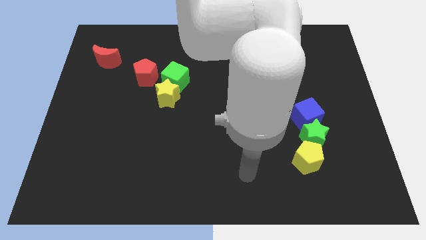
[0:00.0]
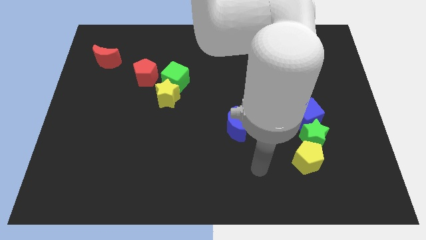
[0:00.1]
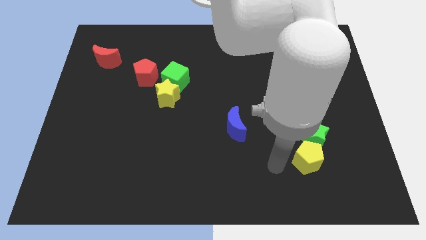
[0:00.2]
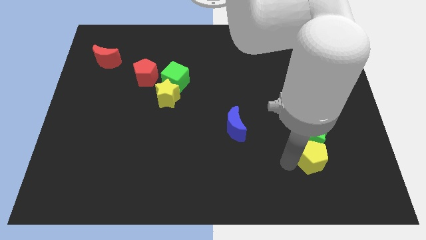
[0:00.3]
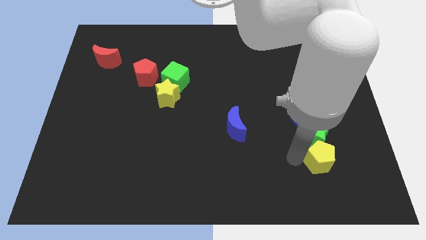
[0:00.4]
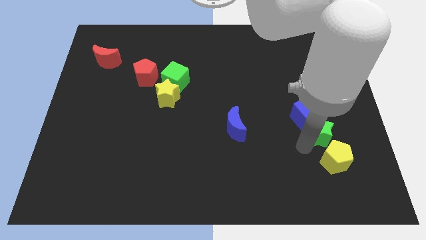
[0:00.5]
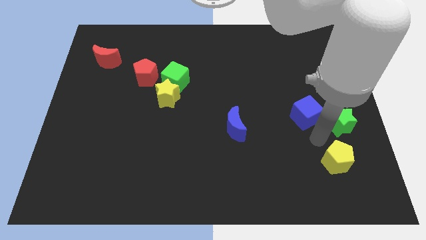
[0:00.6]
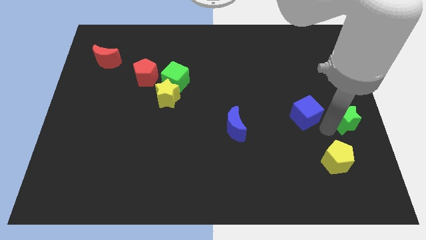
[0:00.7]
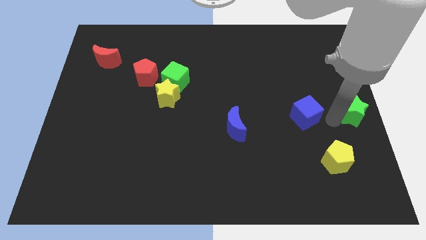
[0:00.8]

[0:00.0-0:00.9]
separate the blue cube from the green star

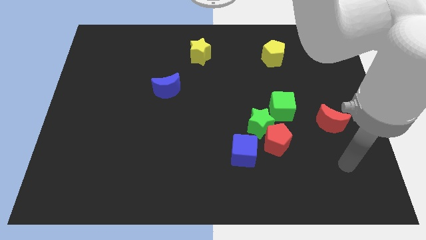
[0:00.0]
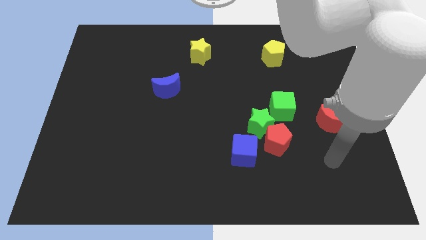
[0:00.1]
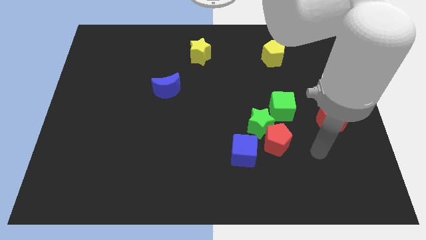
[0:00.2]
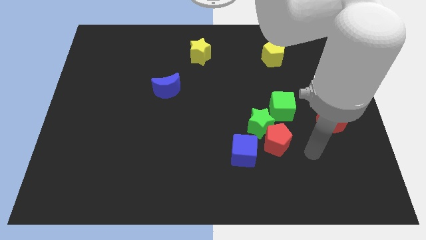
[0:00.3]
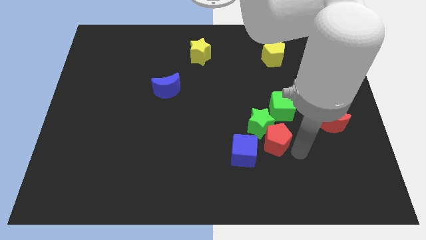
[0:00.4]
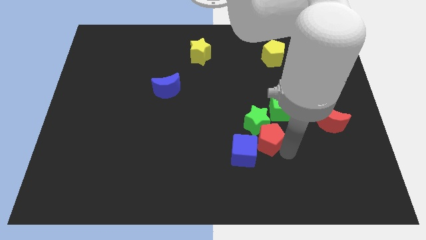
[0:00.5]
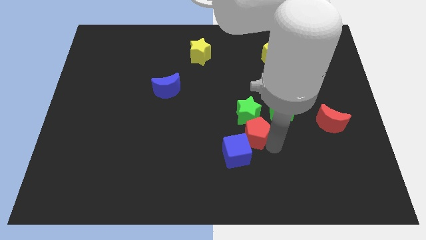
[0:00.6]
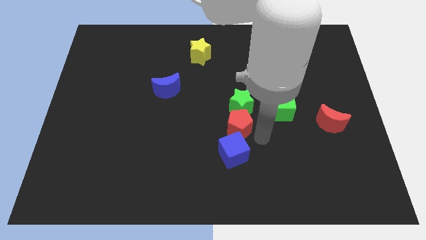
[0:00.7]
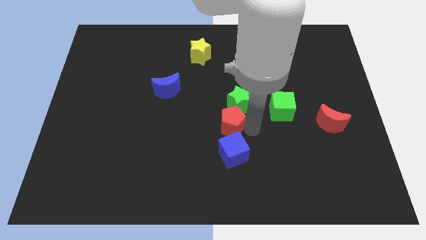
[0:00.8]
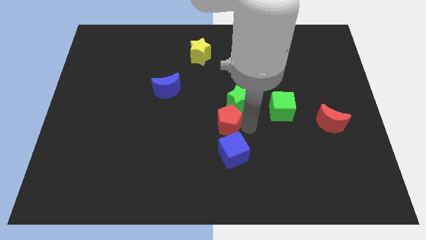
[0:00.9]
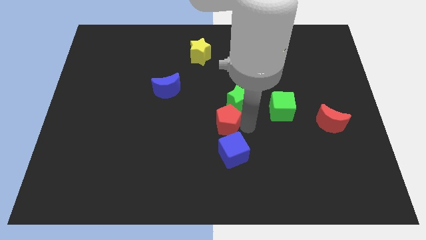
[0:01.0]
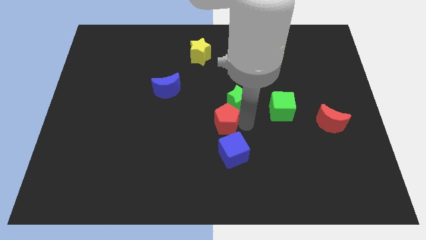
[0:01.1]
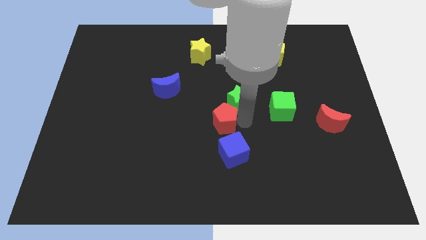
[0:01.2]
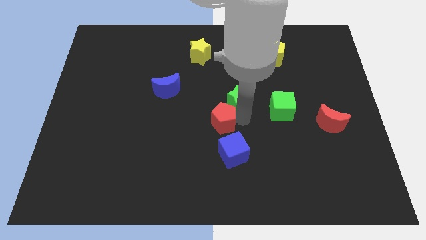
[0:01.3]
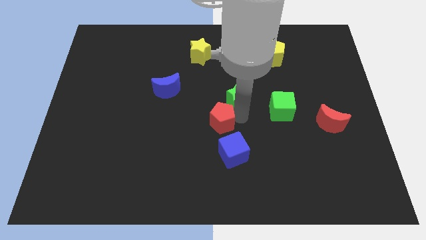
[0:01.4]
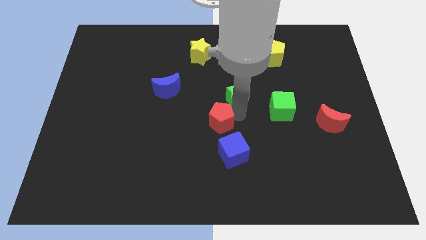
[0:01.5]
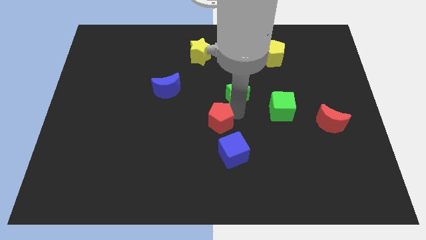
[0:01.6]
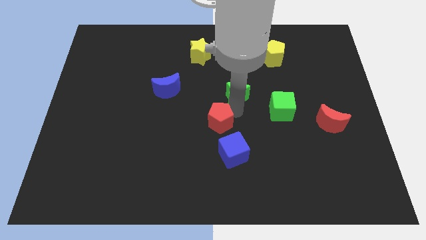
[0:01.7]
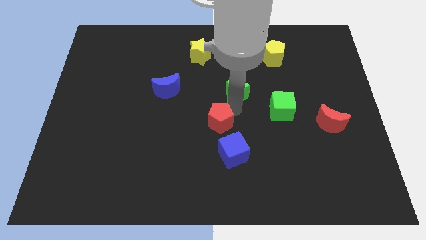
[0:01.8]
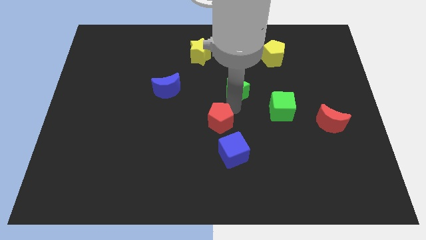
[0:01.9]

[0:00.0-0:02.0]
pull the green star apart from the clump

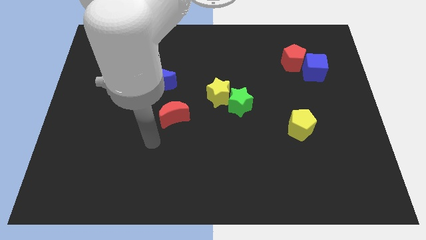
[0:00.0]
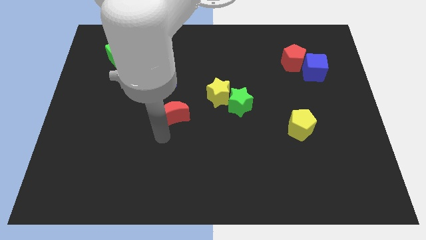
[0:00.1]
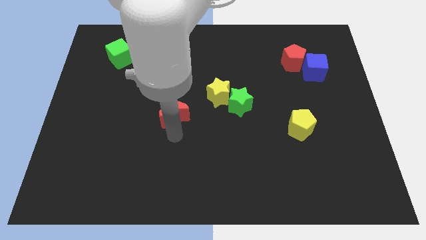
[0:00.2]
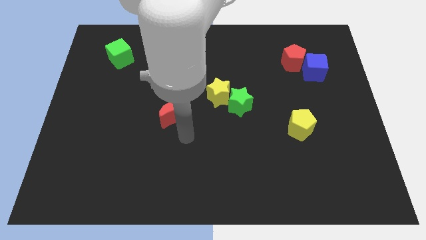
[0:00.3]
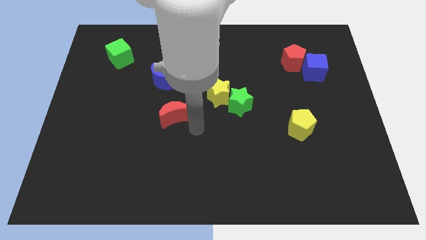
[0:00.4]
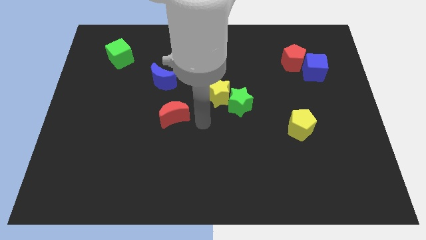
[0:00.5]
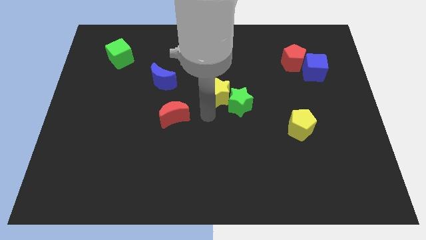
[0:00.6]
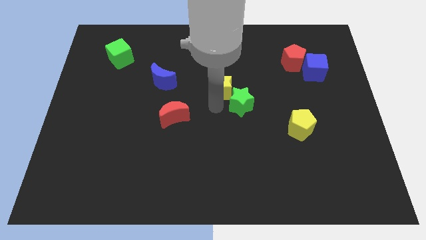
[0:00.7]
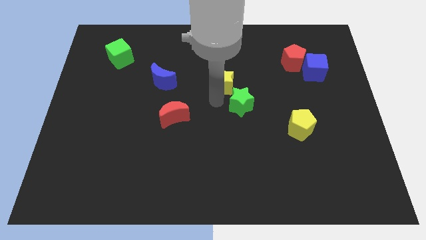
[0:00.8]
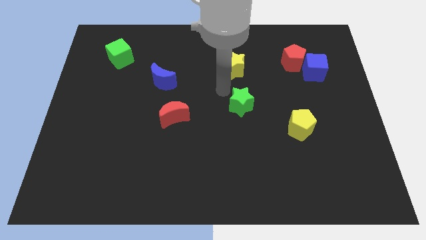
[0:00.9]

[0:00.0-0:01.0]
pull the green star apart from the yellow star

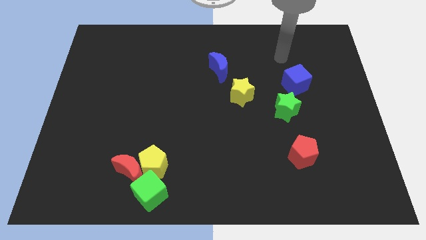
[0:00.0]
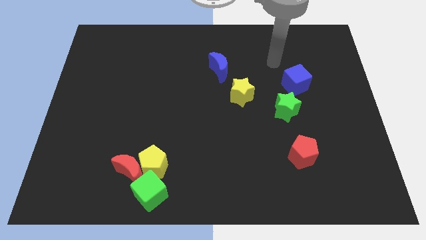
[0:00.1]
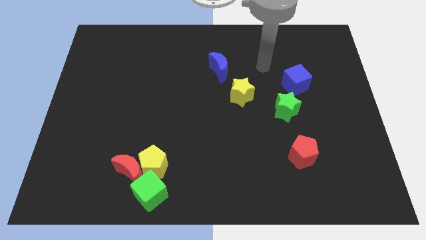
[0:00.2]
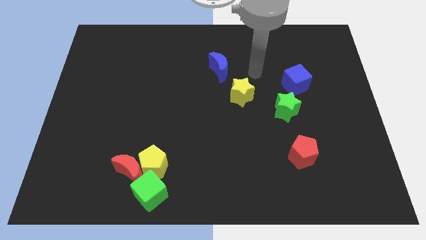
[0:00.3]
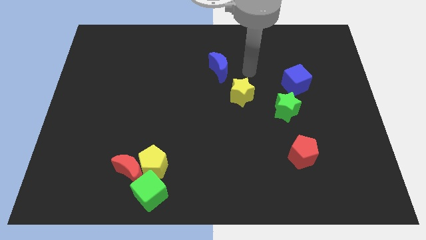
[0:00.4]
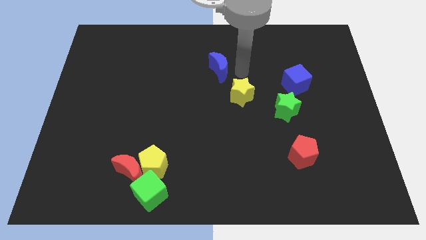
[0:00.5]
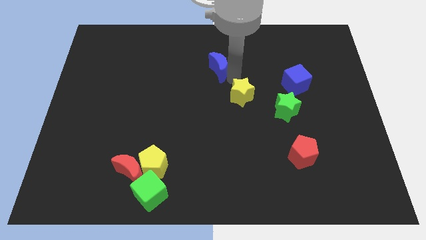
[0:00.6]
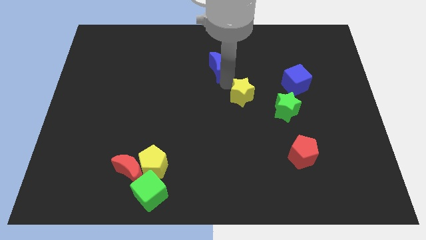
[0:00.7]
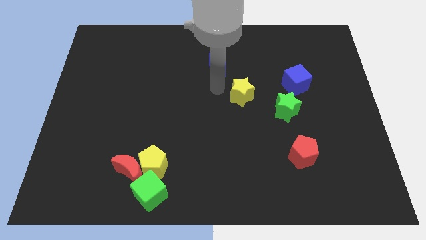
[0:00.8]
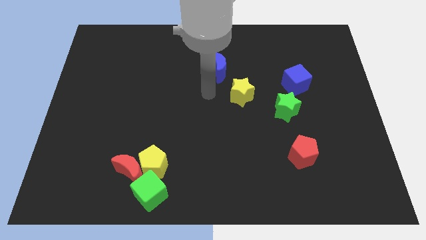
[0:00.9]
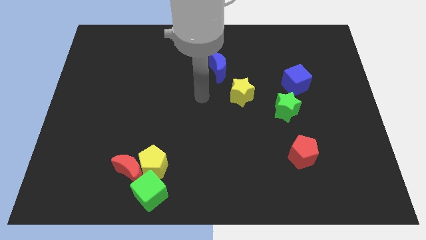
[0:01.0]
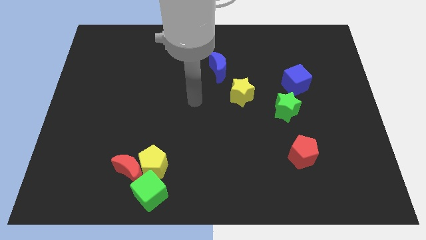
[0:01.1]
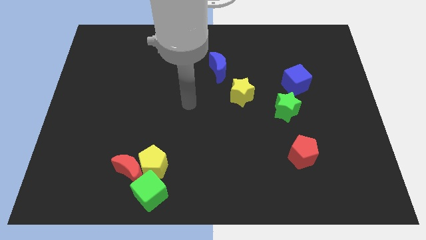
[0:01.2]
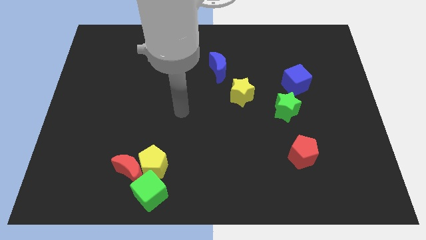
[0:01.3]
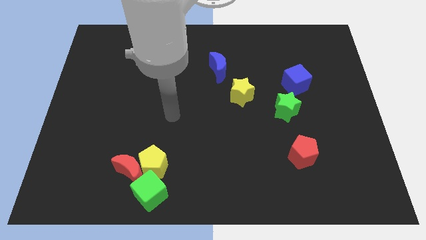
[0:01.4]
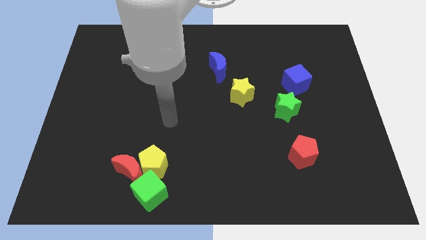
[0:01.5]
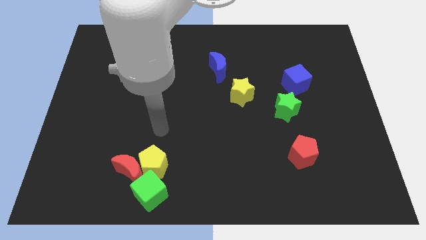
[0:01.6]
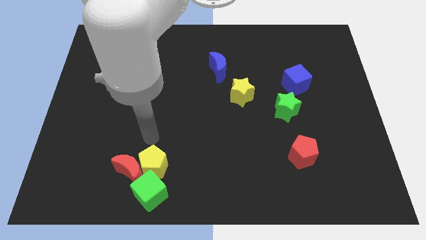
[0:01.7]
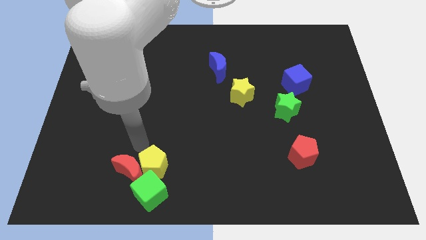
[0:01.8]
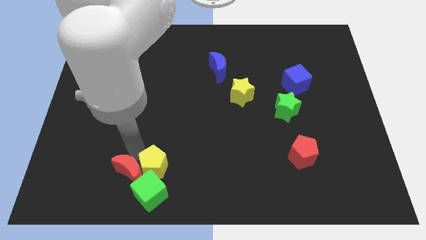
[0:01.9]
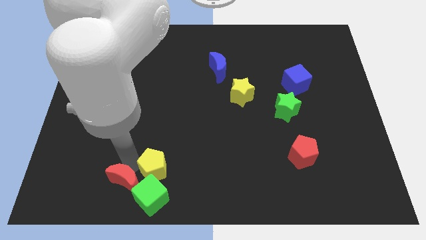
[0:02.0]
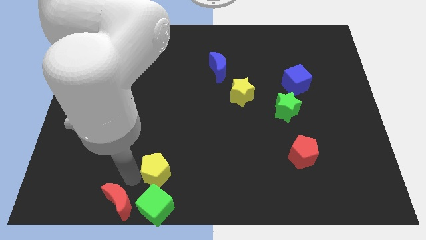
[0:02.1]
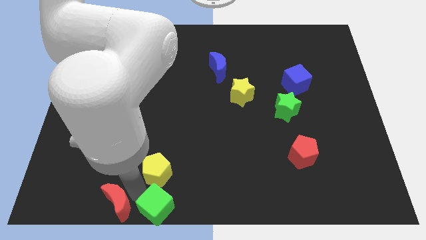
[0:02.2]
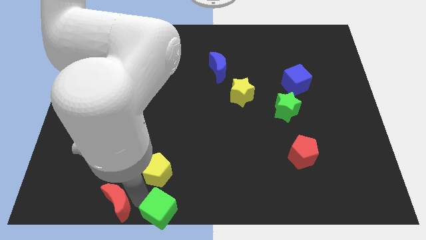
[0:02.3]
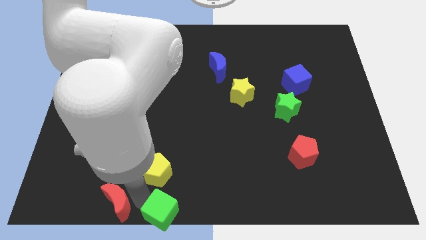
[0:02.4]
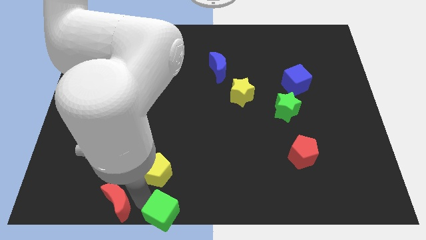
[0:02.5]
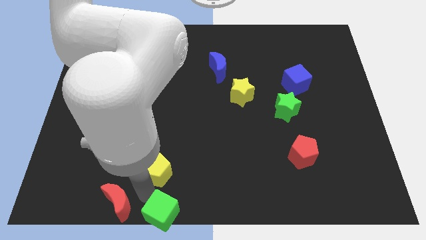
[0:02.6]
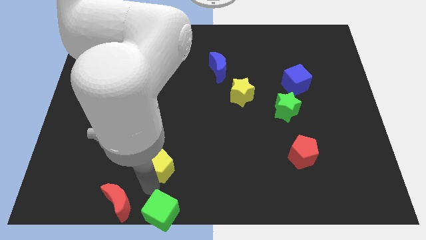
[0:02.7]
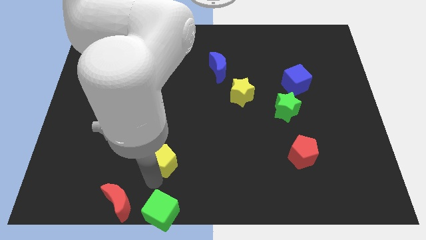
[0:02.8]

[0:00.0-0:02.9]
separate the yellow pentagon from the red moon and green cube

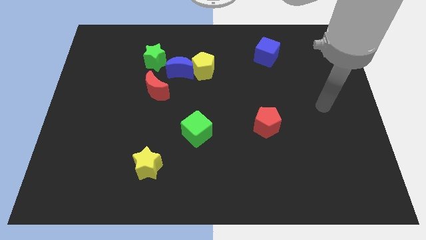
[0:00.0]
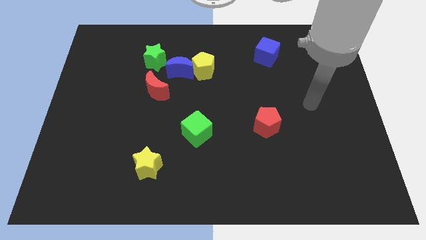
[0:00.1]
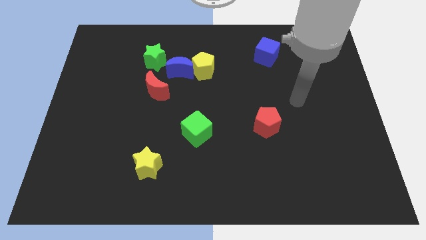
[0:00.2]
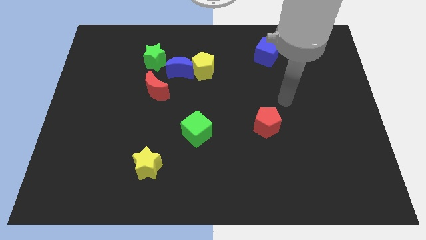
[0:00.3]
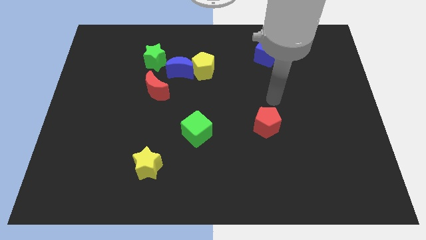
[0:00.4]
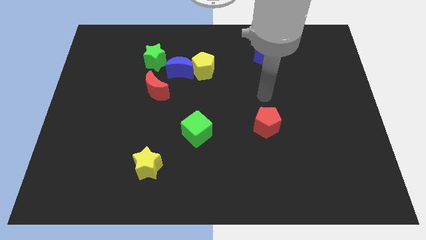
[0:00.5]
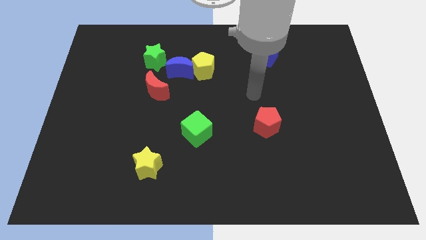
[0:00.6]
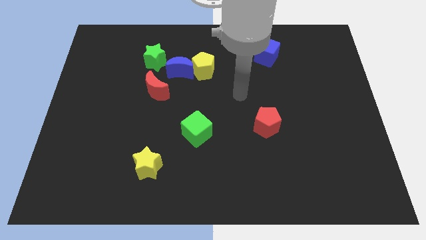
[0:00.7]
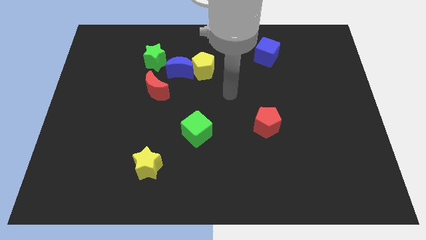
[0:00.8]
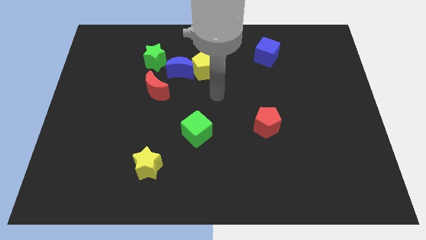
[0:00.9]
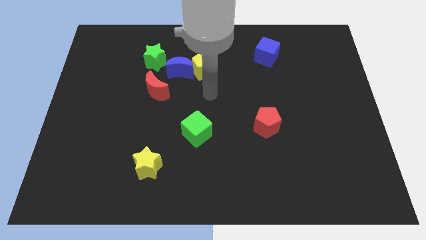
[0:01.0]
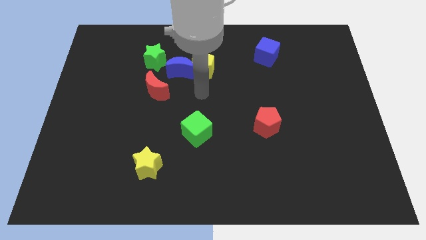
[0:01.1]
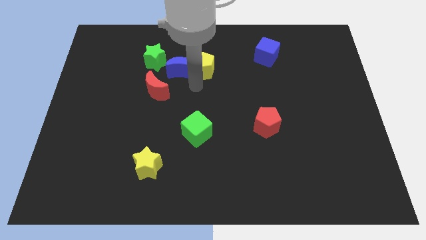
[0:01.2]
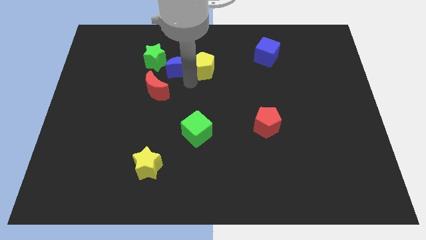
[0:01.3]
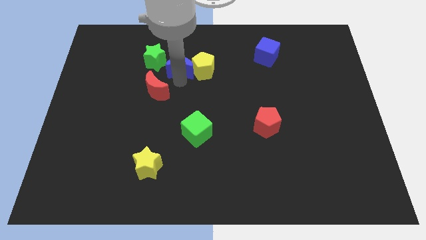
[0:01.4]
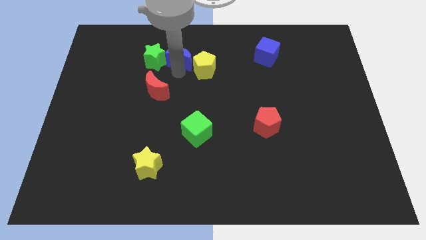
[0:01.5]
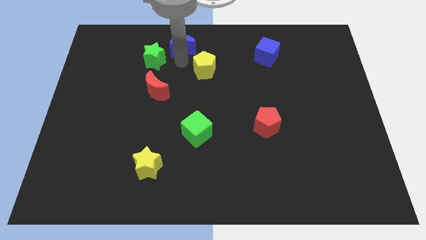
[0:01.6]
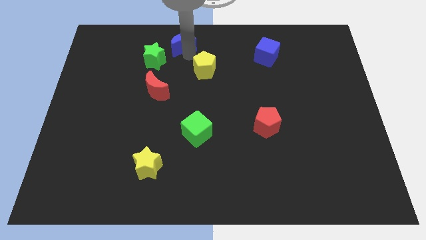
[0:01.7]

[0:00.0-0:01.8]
move the yellow pentagon away from the blue moon

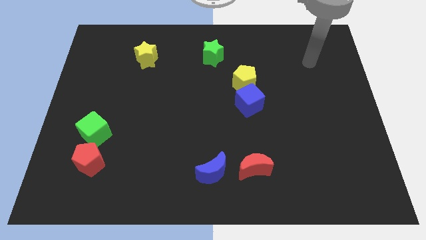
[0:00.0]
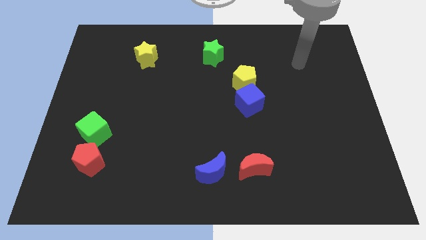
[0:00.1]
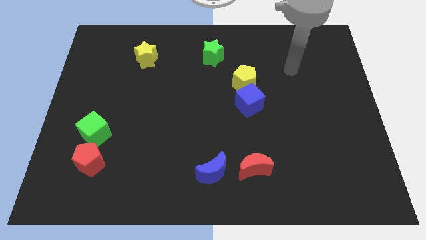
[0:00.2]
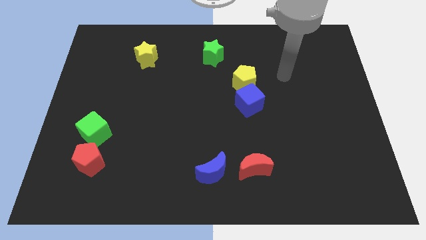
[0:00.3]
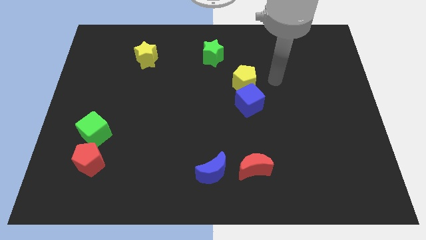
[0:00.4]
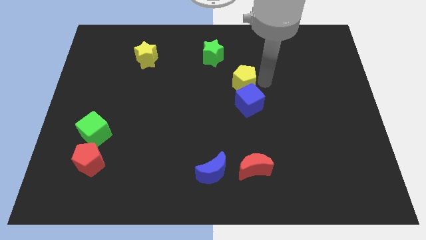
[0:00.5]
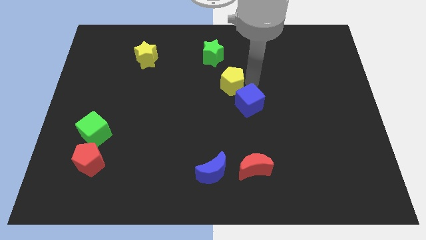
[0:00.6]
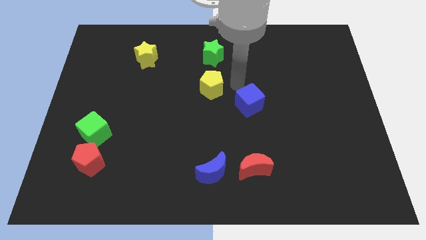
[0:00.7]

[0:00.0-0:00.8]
move the blue cube away from the yellow pentagon
